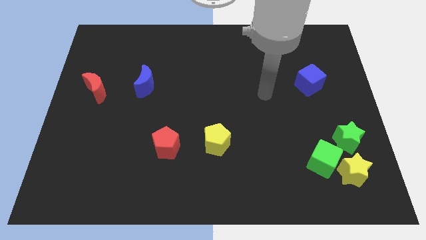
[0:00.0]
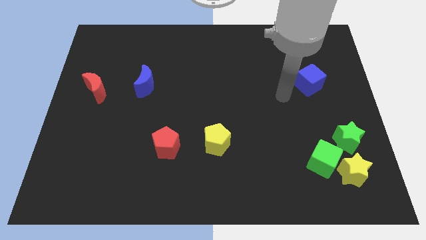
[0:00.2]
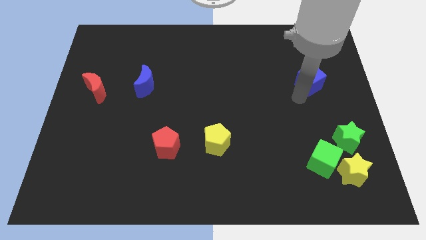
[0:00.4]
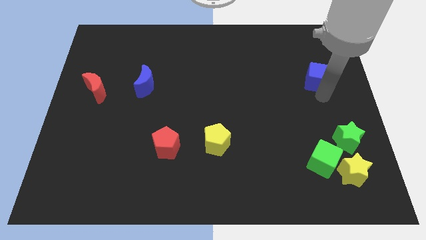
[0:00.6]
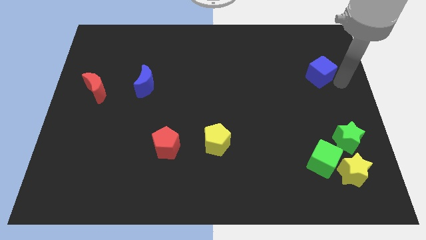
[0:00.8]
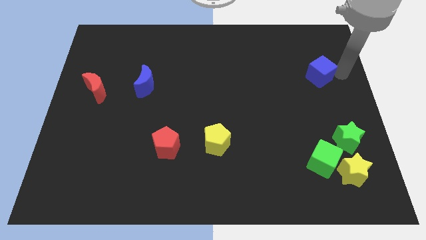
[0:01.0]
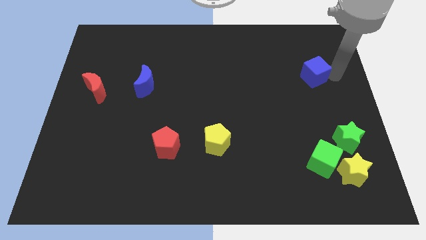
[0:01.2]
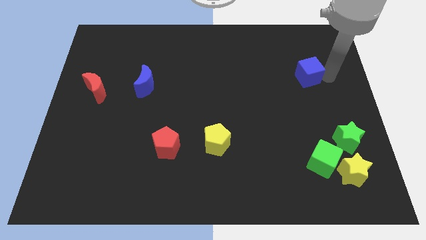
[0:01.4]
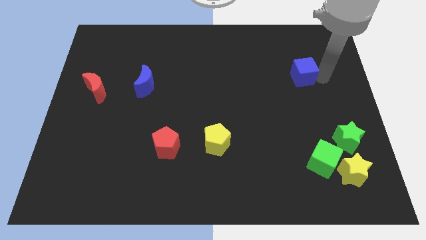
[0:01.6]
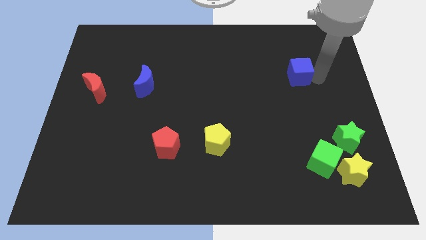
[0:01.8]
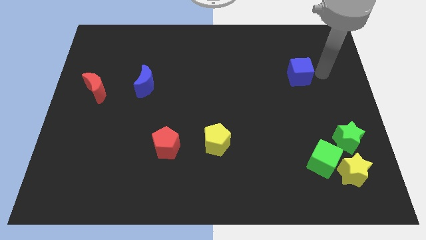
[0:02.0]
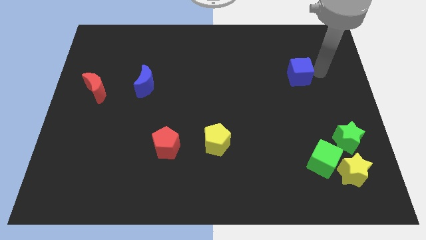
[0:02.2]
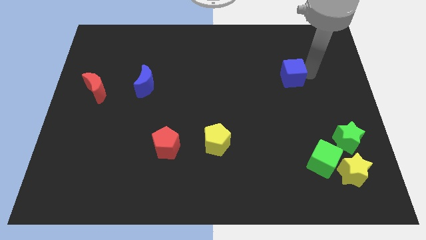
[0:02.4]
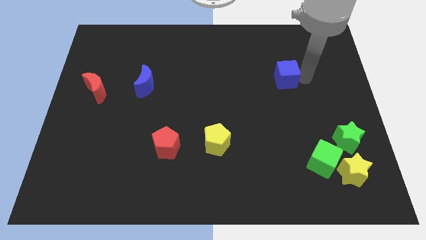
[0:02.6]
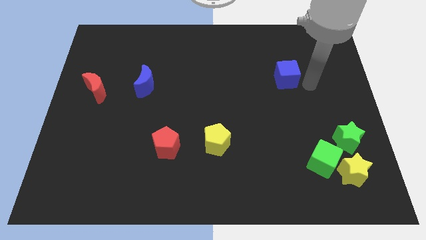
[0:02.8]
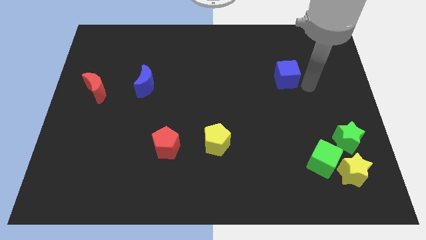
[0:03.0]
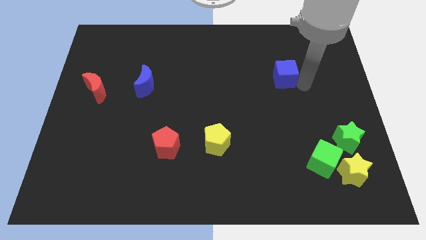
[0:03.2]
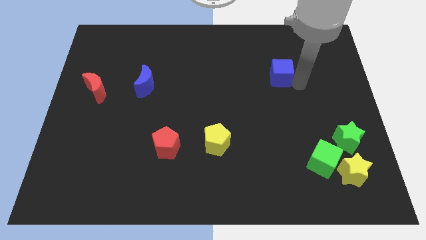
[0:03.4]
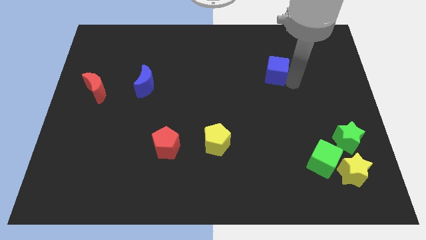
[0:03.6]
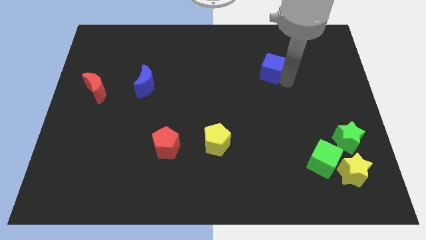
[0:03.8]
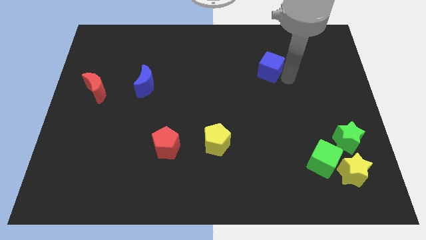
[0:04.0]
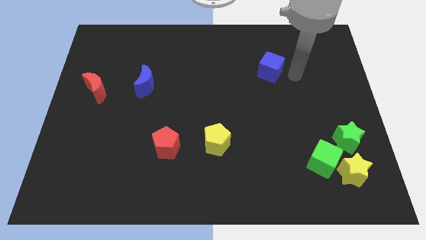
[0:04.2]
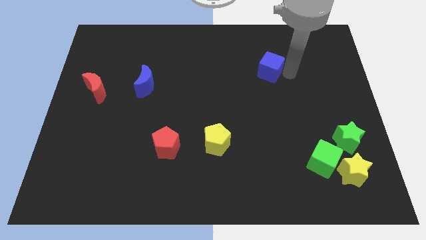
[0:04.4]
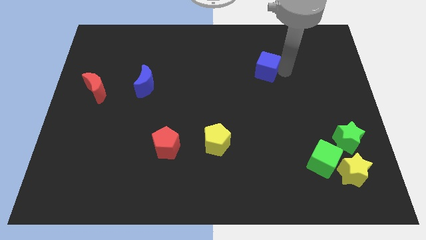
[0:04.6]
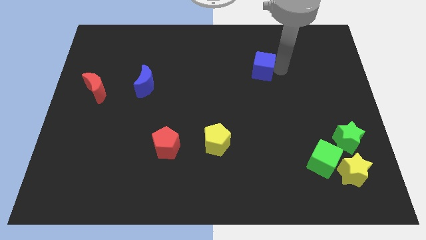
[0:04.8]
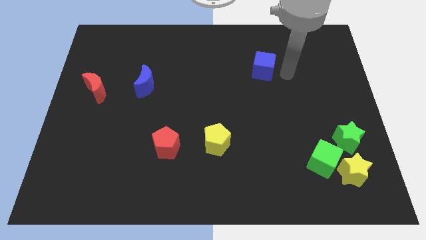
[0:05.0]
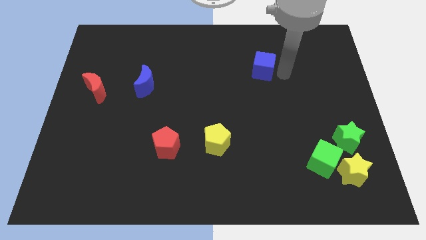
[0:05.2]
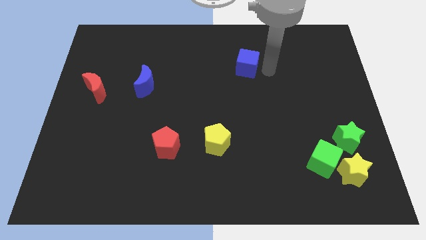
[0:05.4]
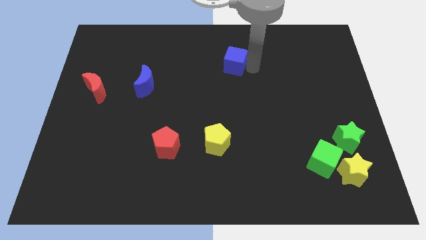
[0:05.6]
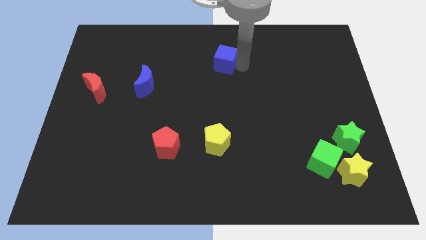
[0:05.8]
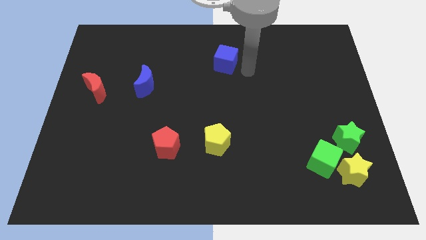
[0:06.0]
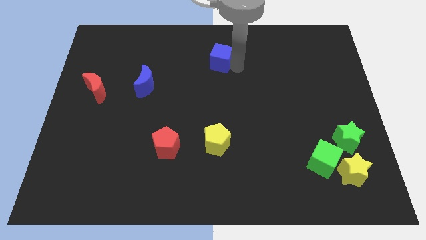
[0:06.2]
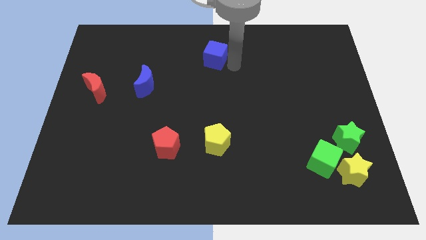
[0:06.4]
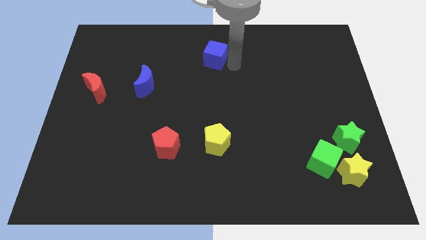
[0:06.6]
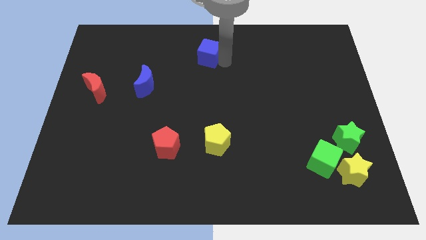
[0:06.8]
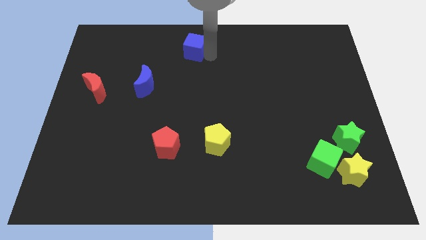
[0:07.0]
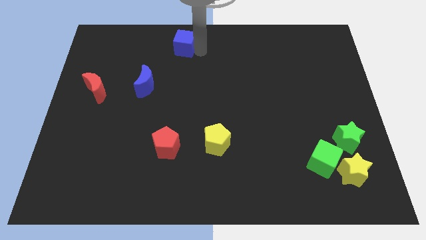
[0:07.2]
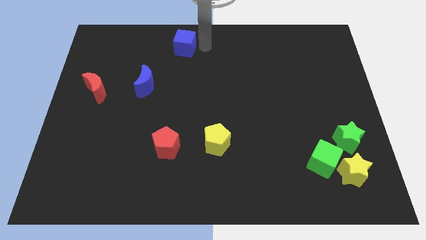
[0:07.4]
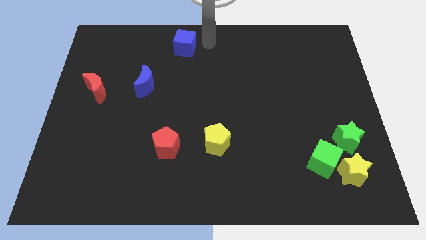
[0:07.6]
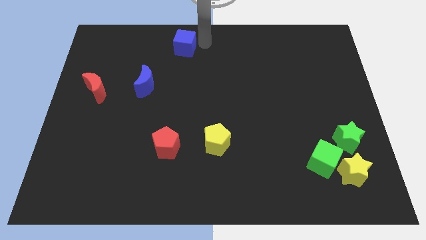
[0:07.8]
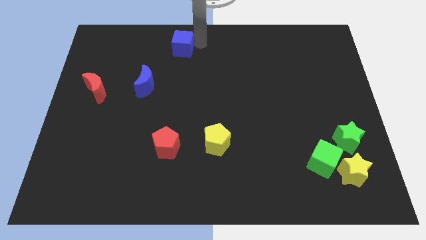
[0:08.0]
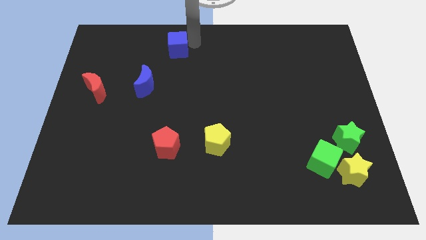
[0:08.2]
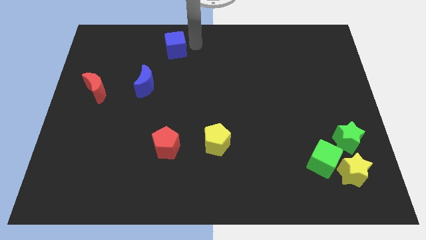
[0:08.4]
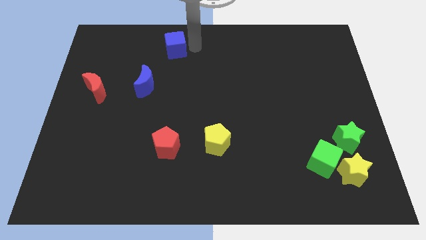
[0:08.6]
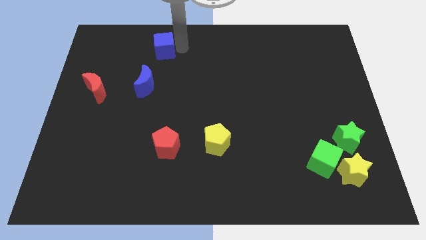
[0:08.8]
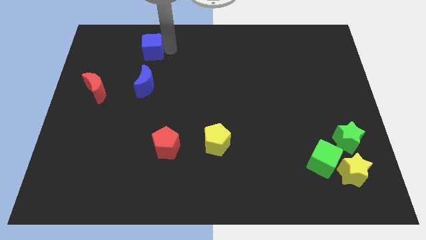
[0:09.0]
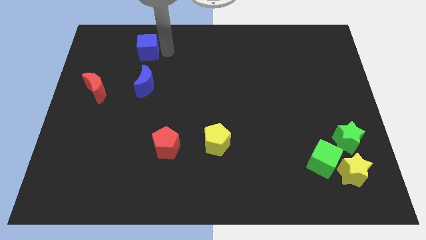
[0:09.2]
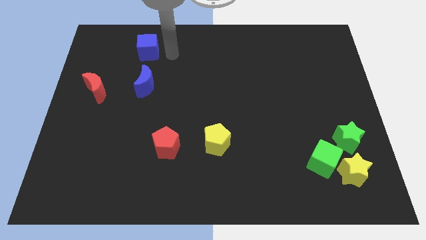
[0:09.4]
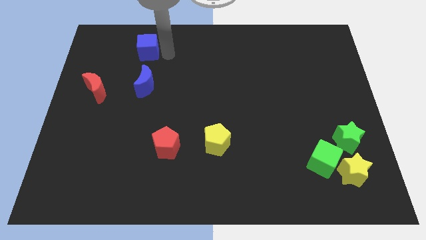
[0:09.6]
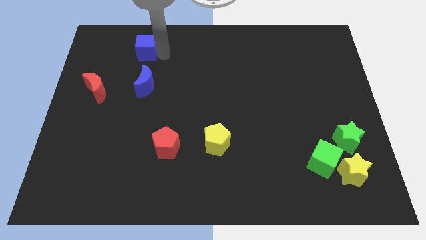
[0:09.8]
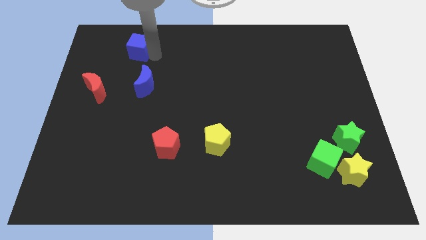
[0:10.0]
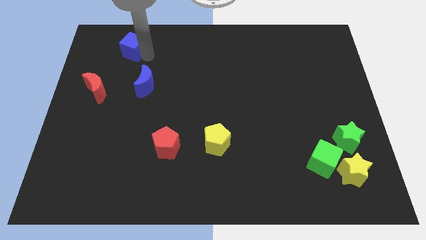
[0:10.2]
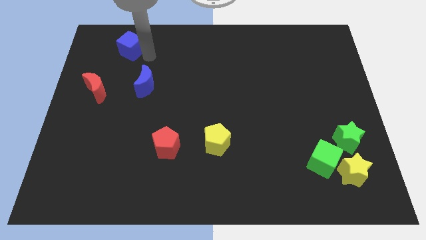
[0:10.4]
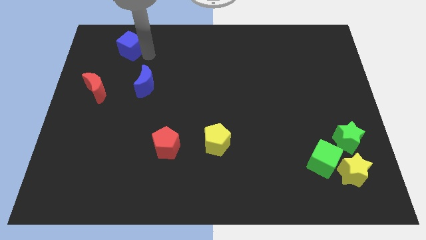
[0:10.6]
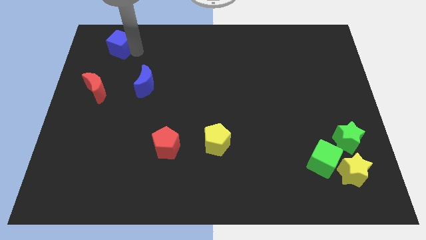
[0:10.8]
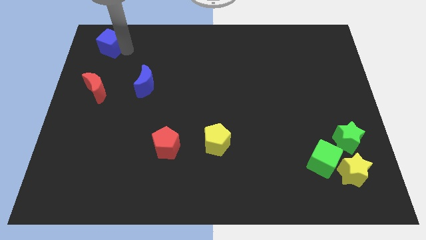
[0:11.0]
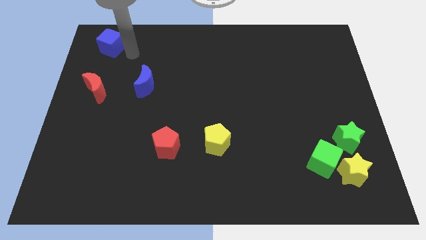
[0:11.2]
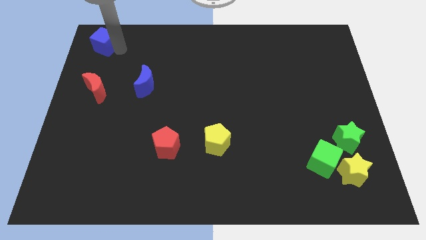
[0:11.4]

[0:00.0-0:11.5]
put the blue cube to the top left

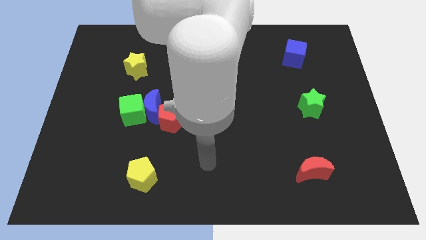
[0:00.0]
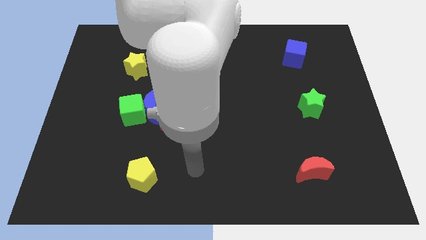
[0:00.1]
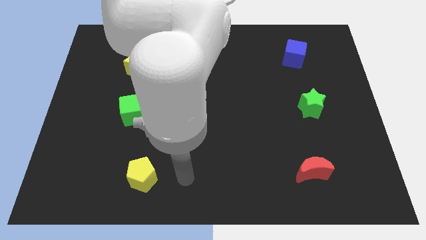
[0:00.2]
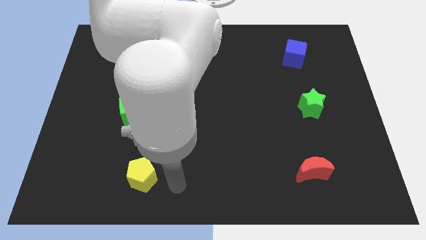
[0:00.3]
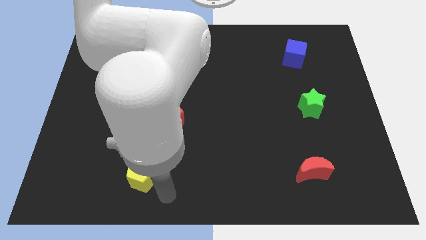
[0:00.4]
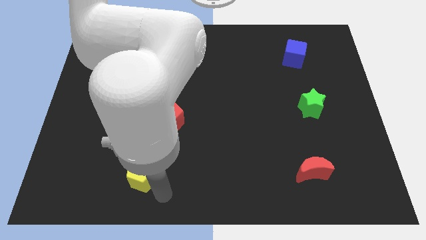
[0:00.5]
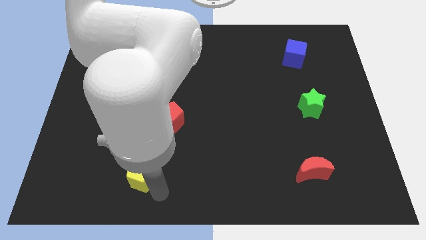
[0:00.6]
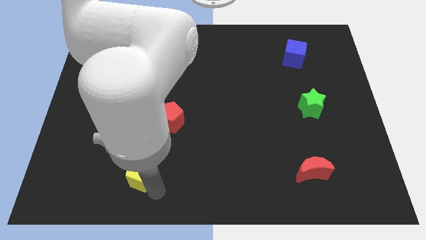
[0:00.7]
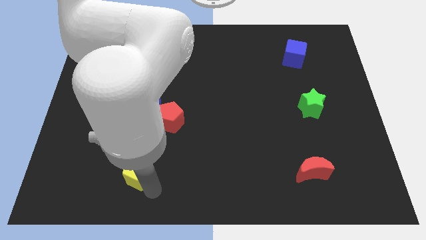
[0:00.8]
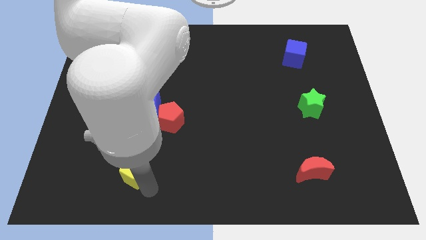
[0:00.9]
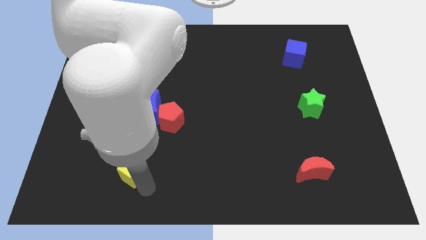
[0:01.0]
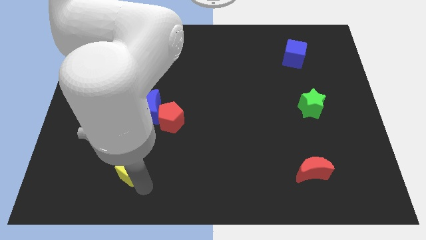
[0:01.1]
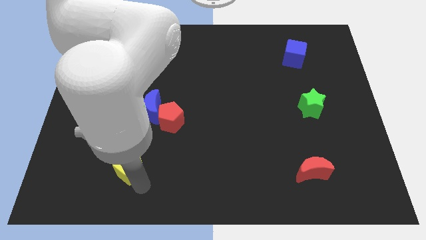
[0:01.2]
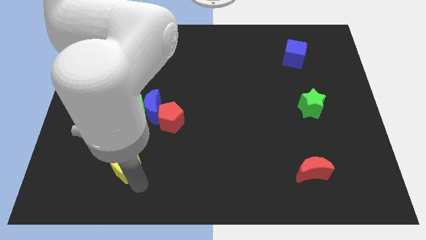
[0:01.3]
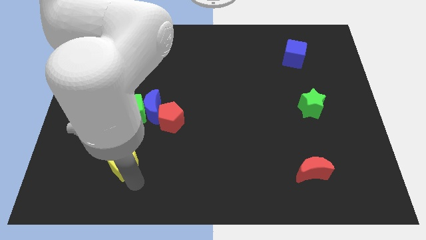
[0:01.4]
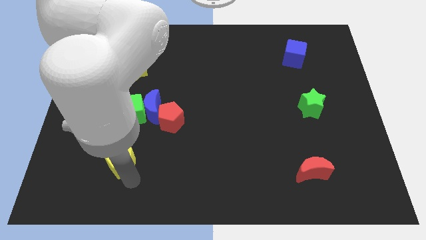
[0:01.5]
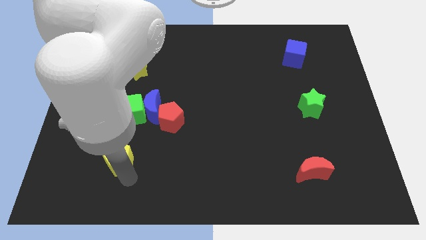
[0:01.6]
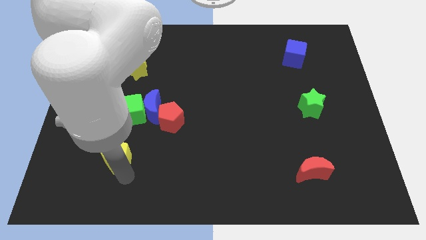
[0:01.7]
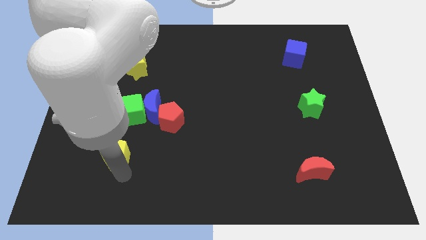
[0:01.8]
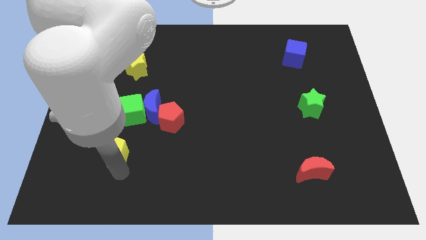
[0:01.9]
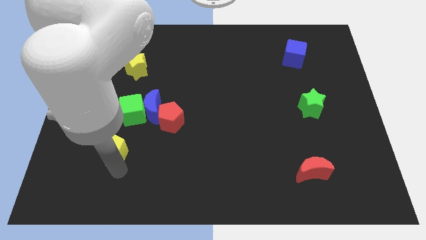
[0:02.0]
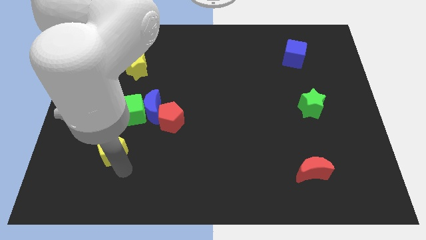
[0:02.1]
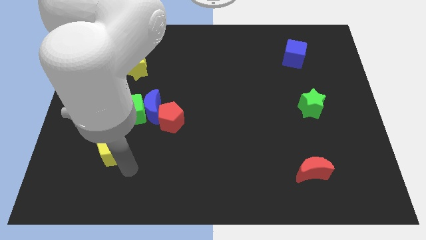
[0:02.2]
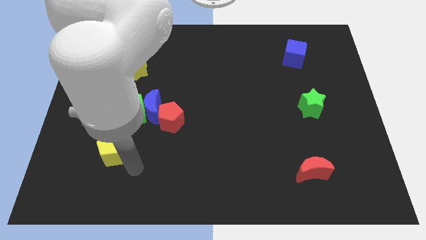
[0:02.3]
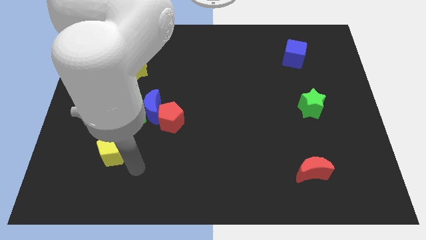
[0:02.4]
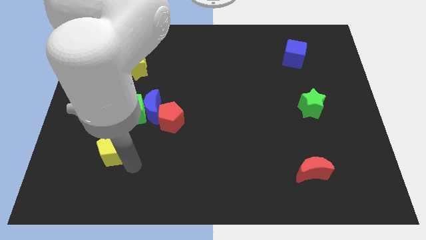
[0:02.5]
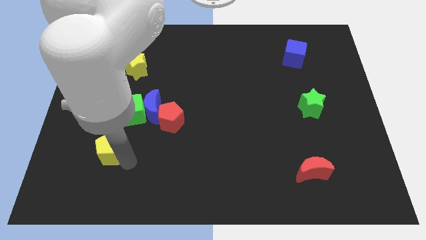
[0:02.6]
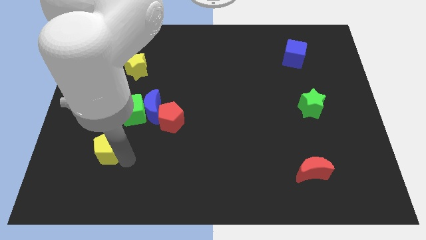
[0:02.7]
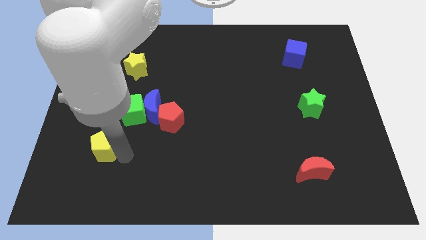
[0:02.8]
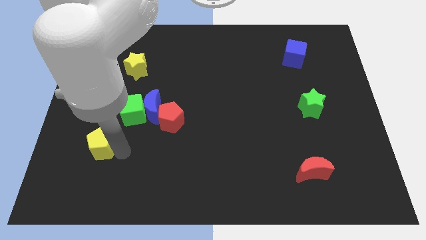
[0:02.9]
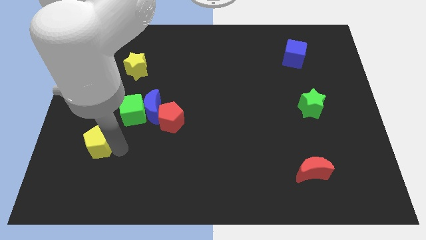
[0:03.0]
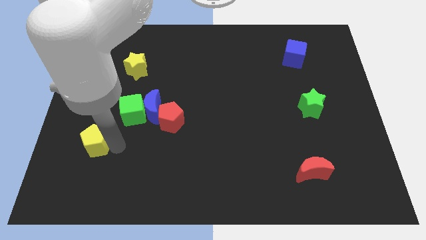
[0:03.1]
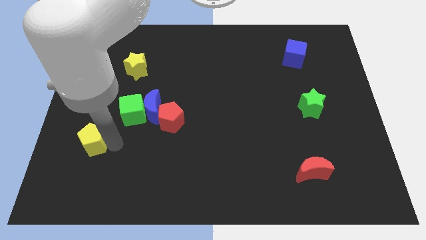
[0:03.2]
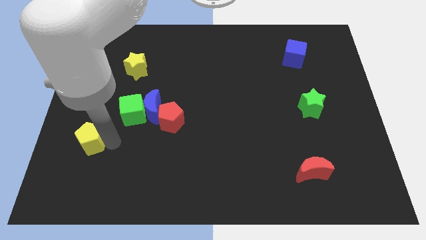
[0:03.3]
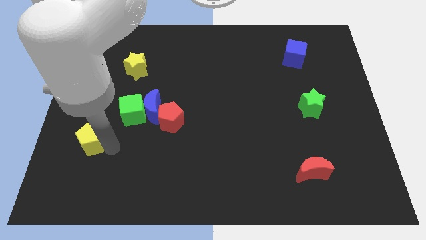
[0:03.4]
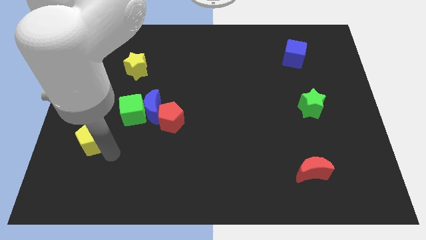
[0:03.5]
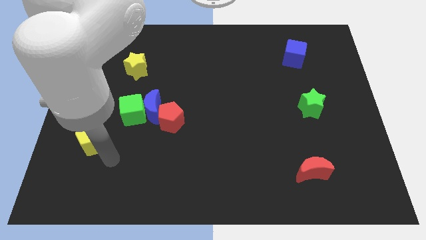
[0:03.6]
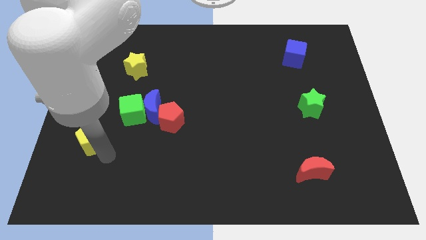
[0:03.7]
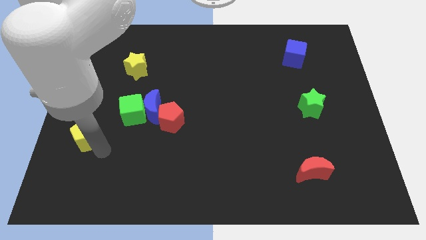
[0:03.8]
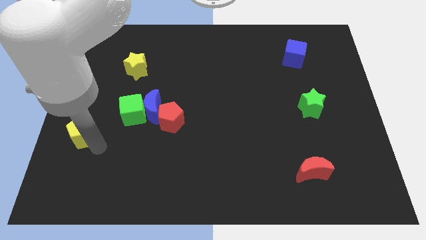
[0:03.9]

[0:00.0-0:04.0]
push the yellow pentagon to the left side of the board
